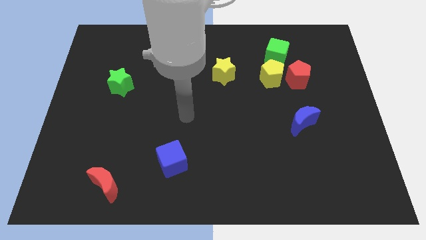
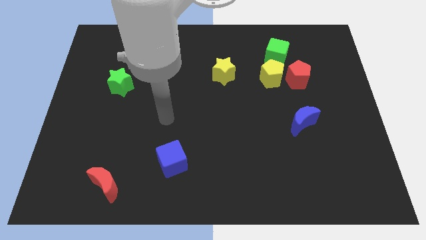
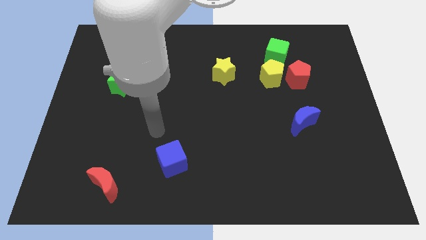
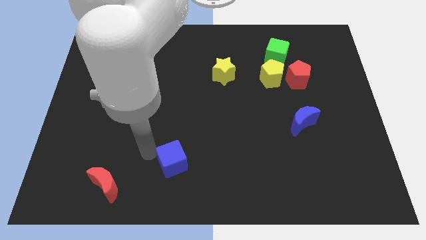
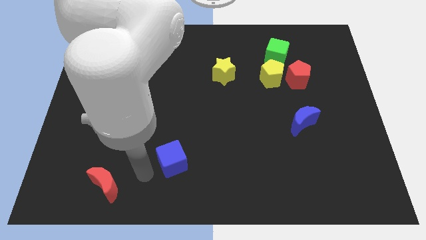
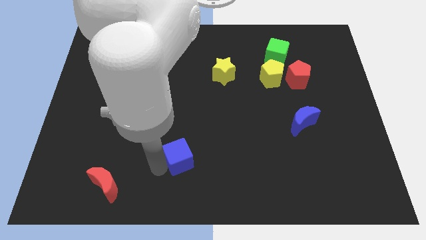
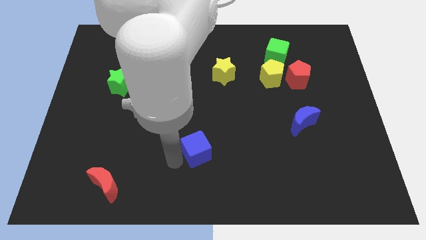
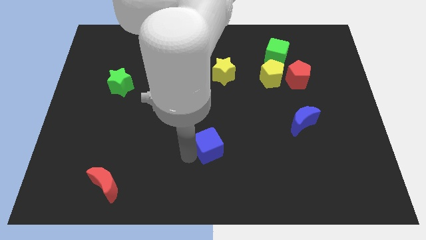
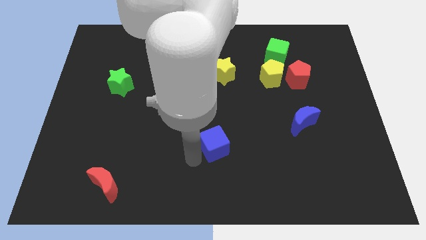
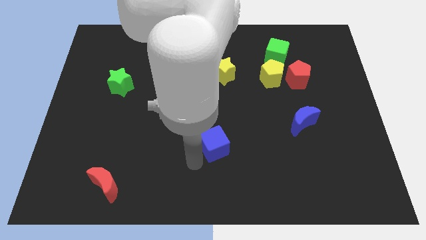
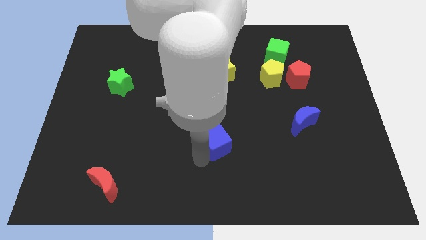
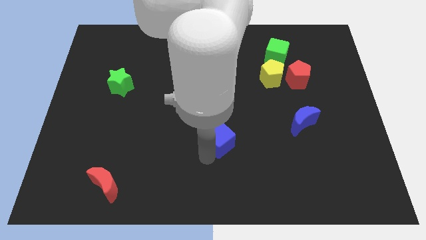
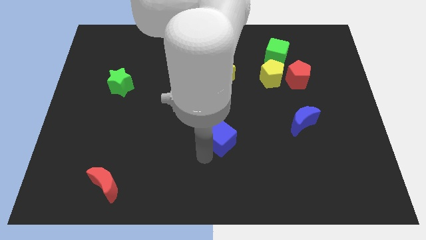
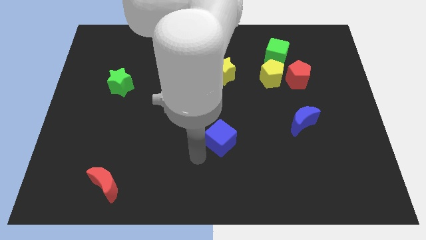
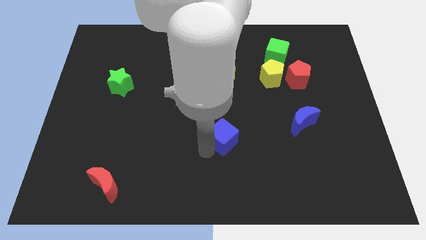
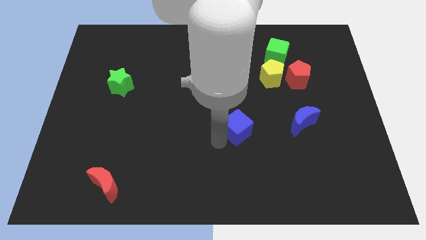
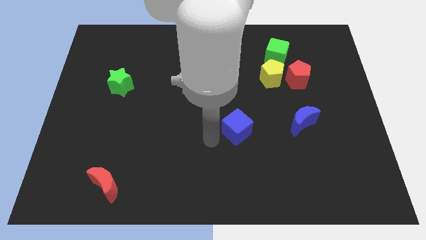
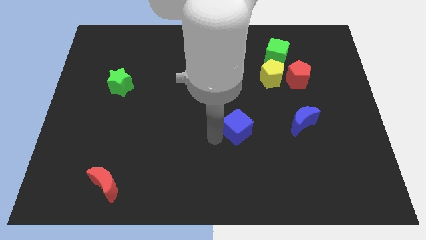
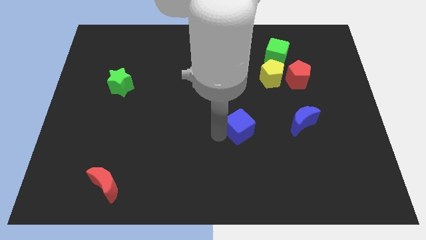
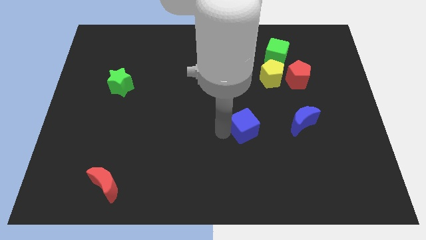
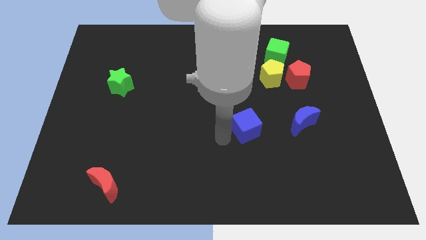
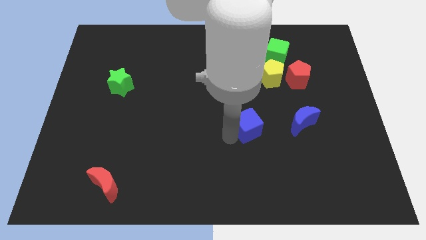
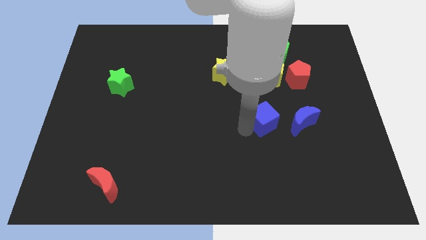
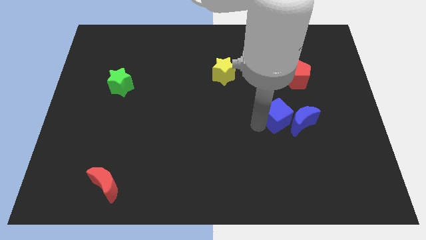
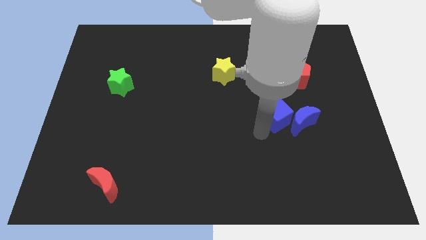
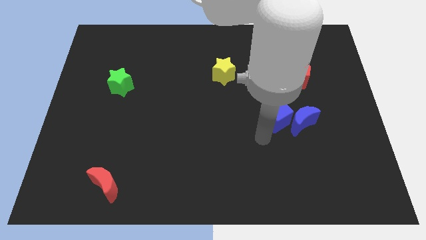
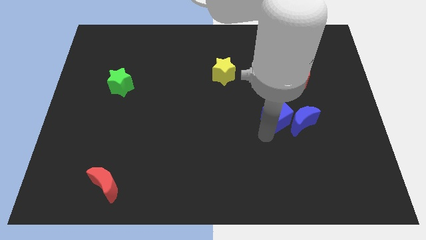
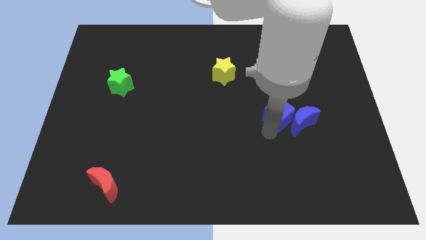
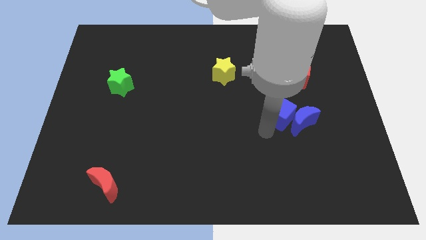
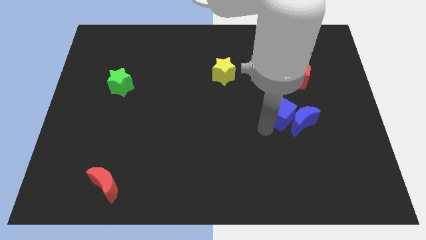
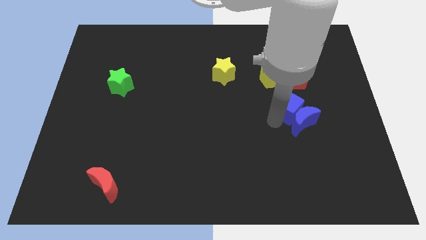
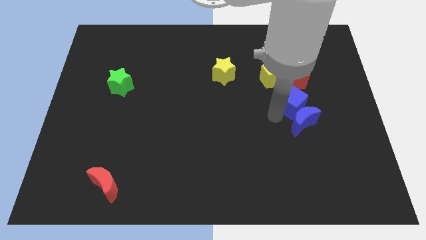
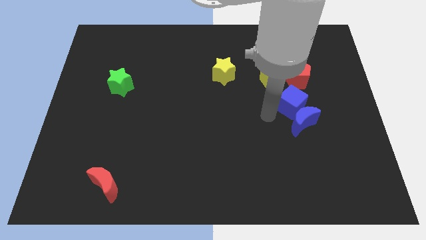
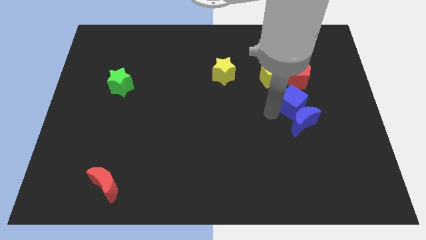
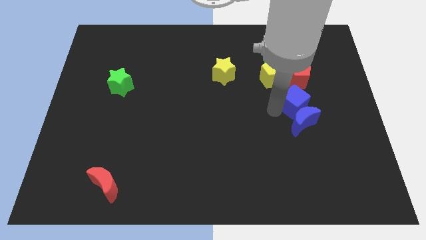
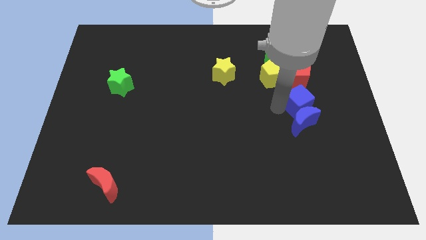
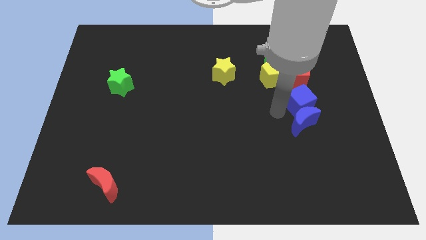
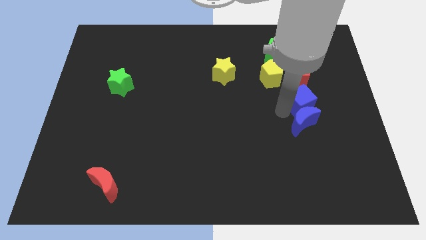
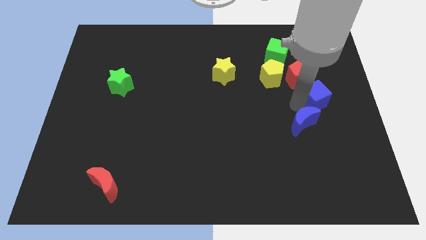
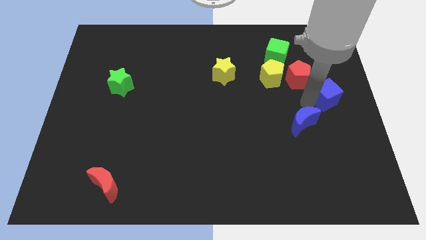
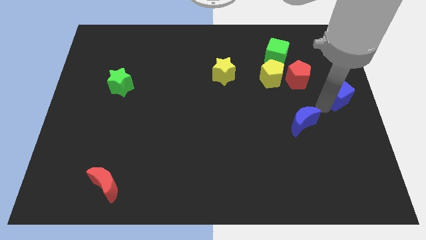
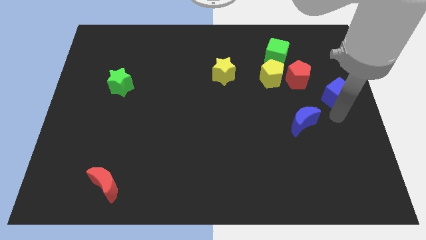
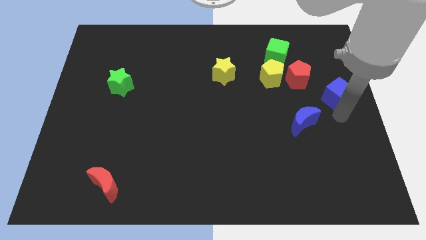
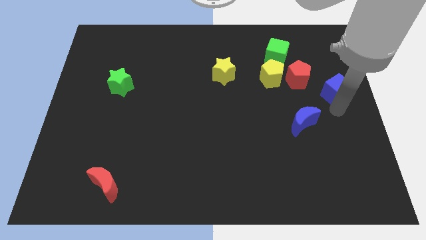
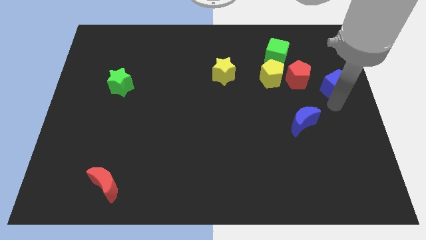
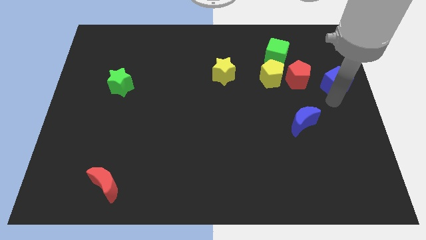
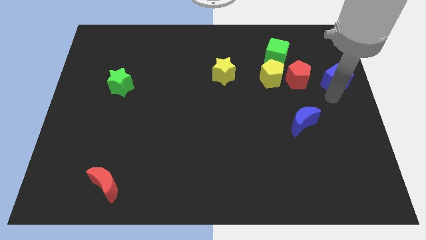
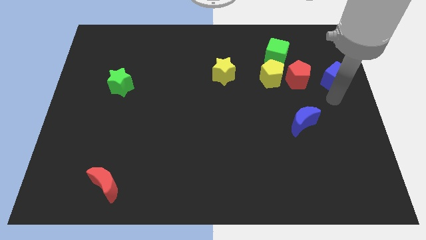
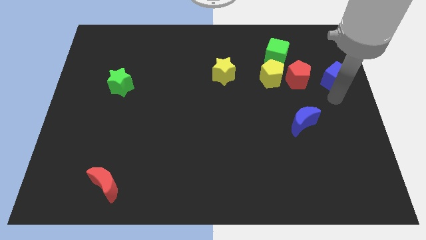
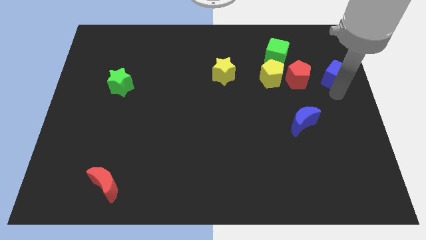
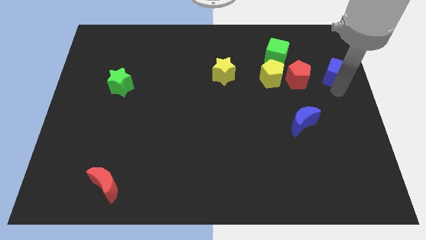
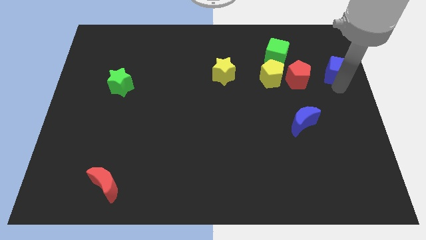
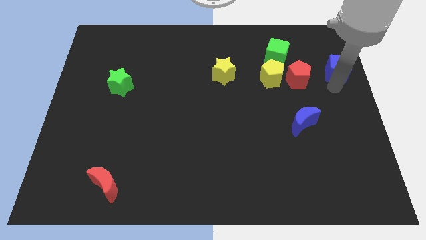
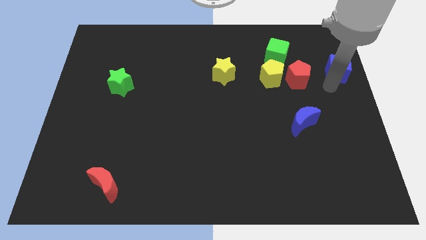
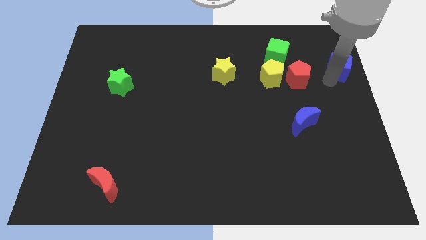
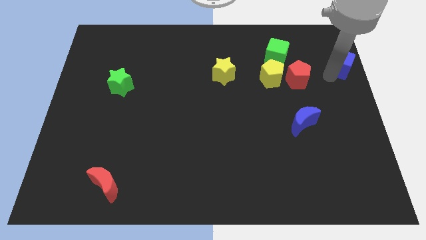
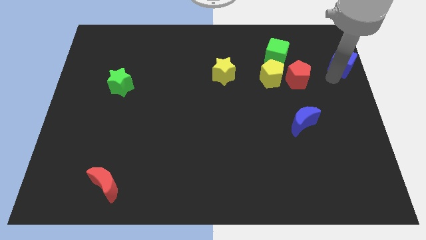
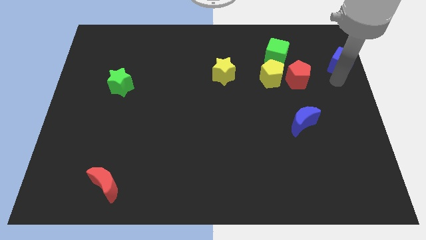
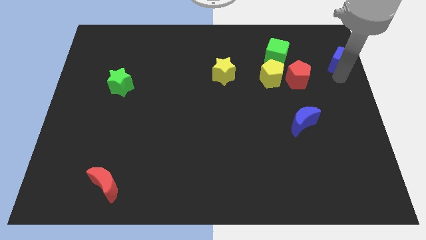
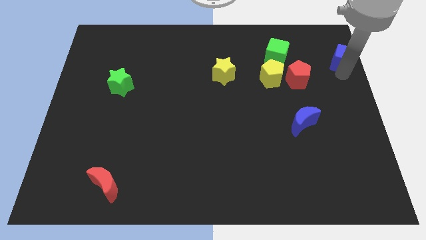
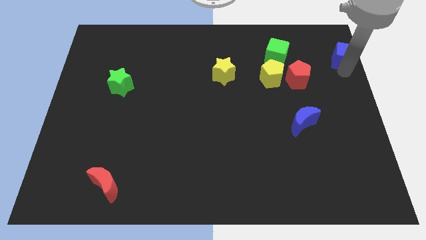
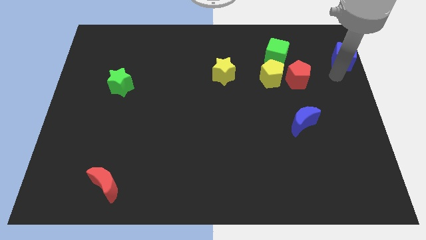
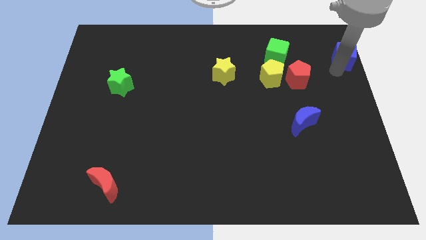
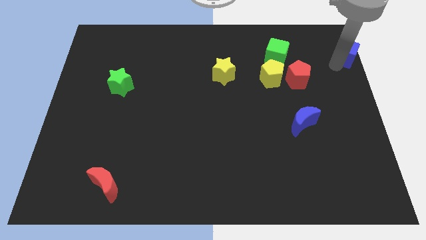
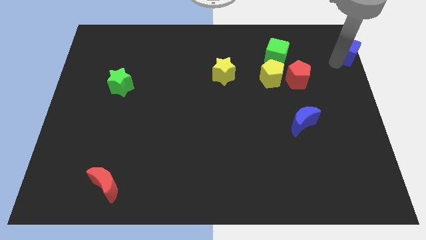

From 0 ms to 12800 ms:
move the blue cube to the top right of the board
